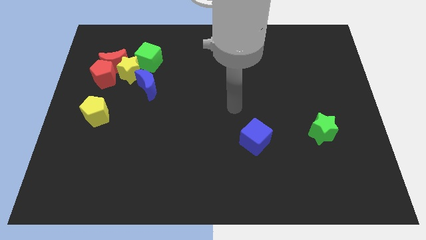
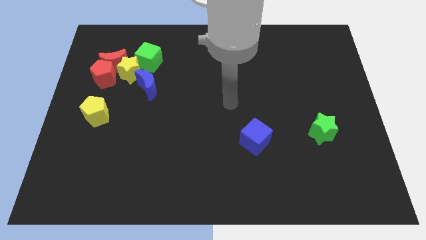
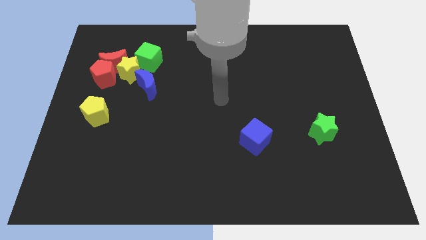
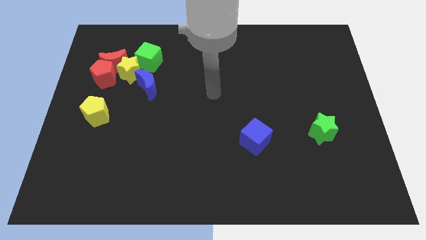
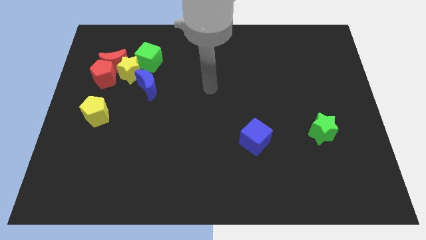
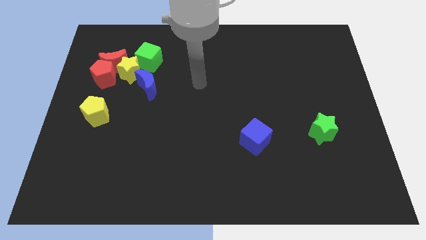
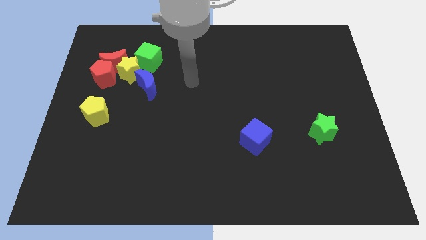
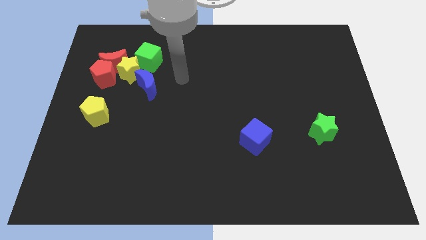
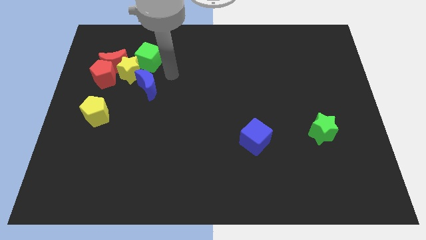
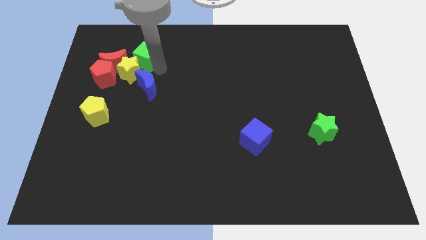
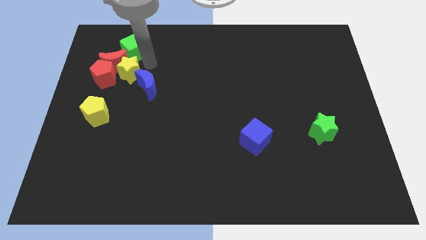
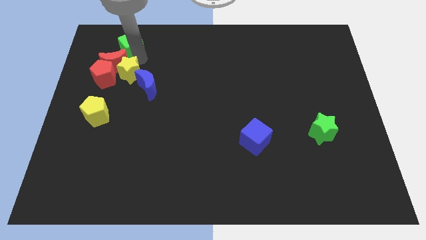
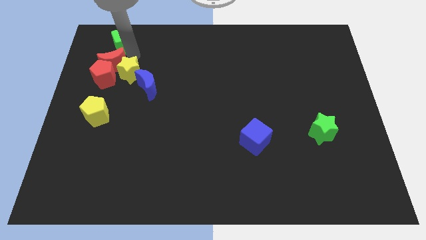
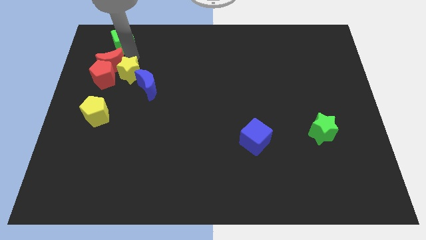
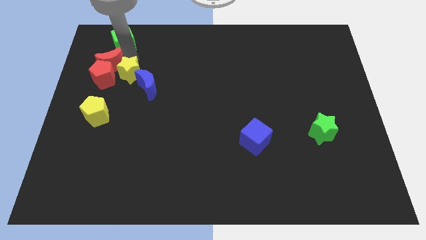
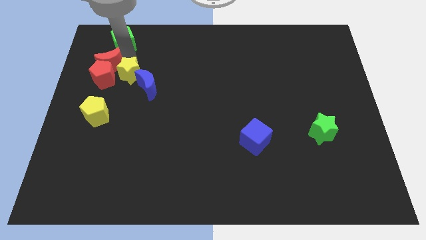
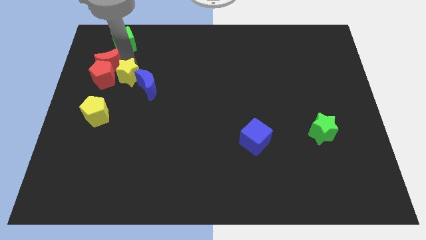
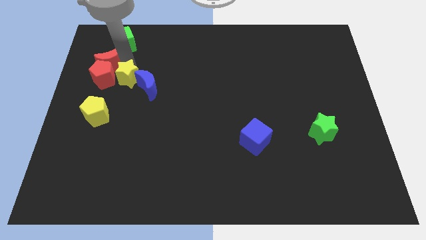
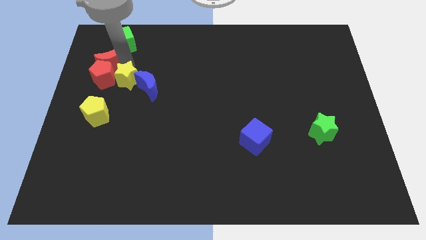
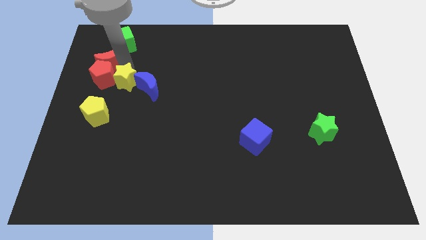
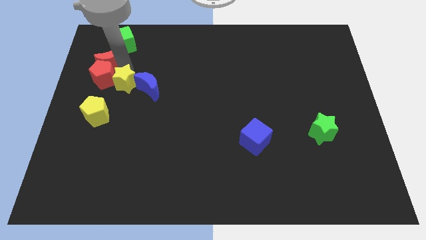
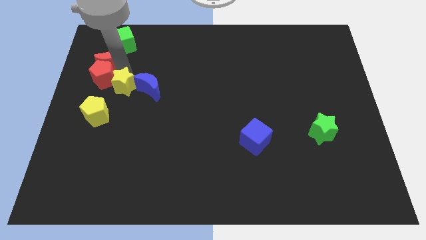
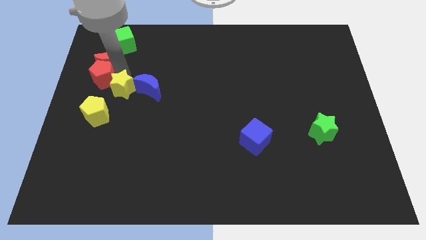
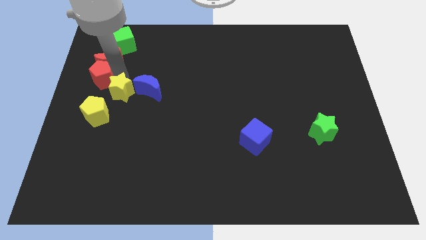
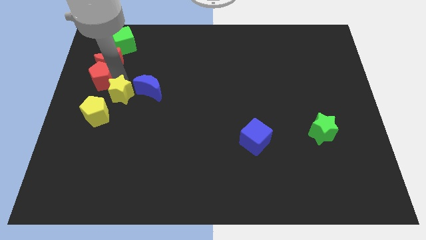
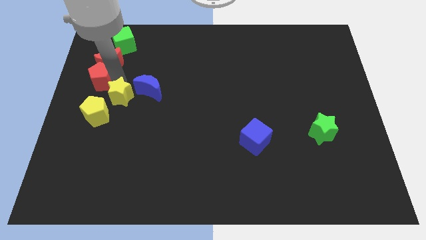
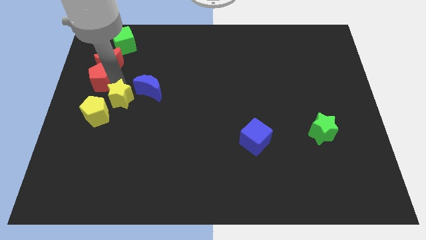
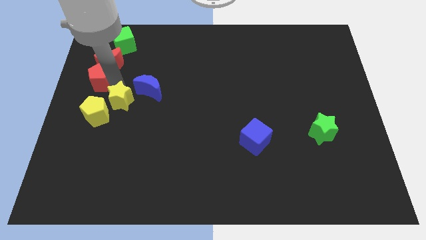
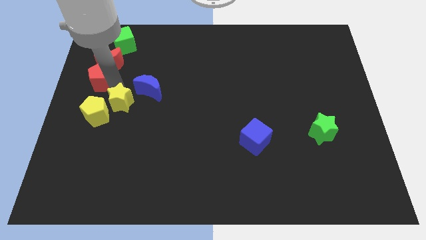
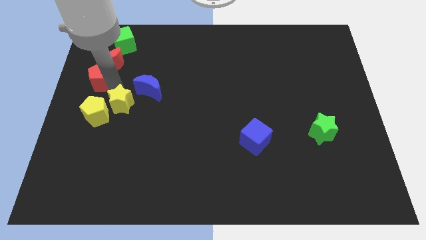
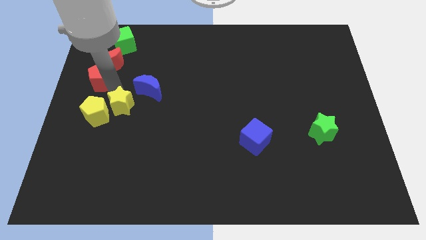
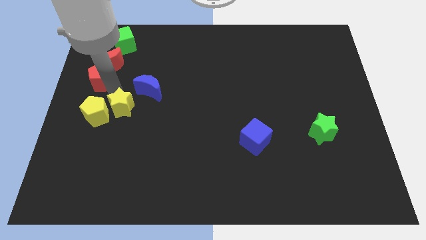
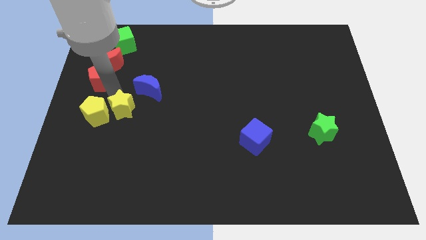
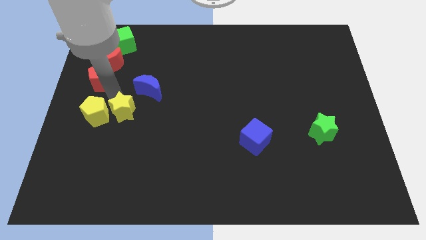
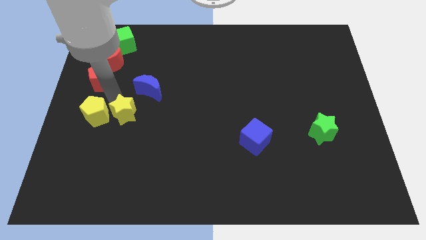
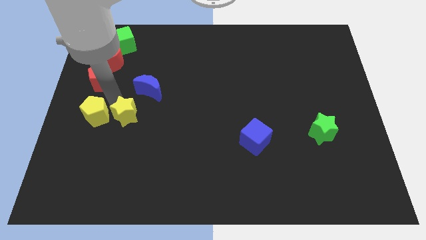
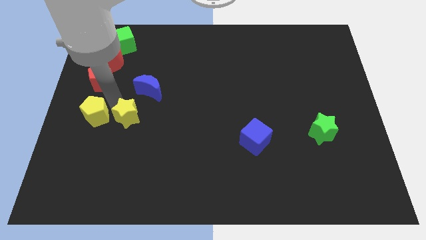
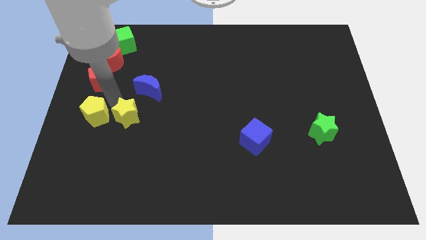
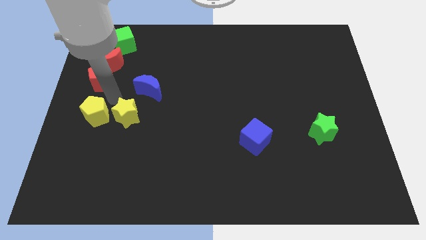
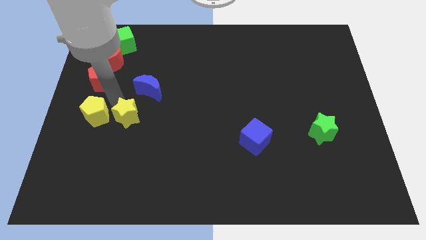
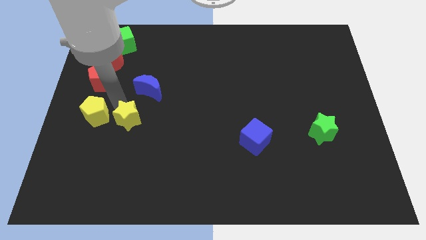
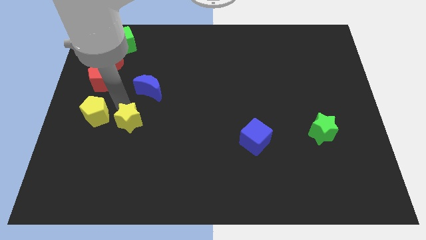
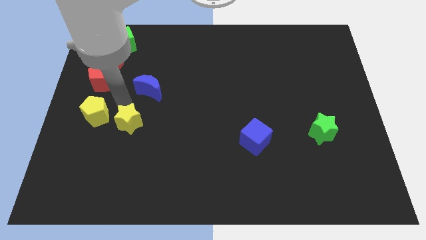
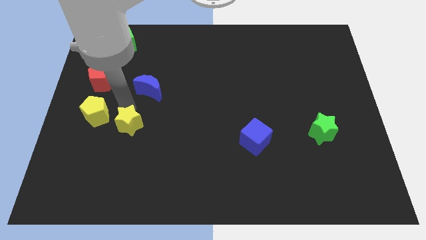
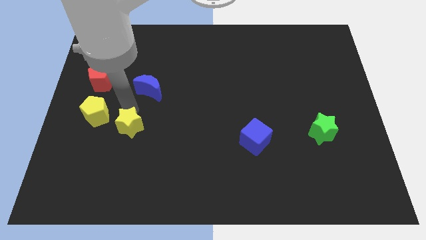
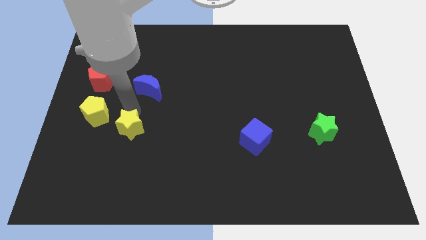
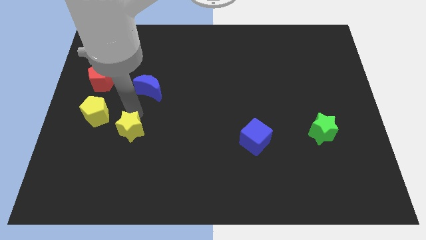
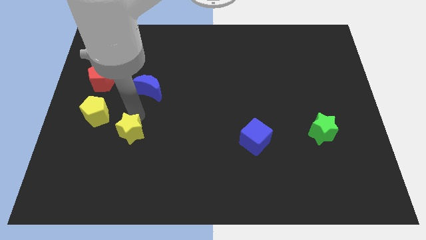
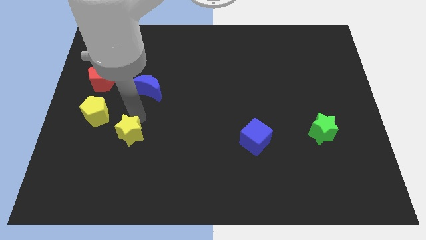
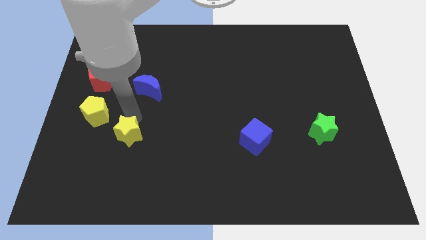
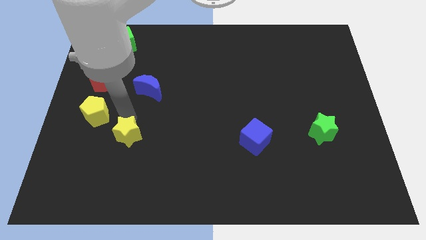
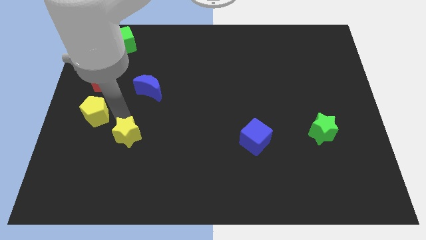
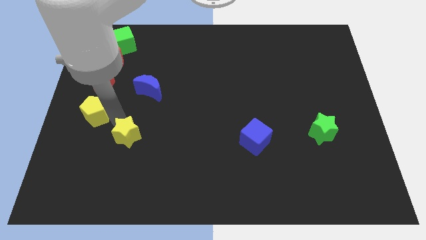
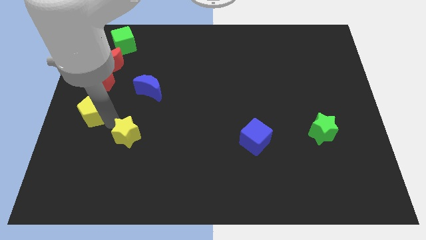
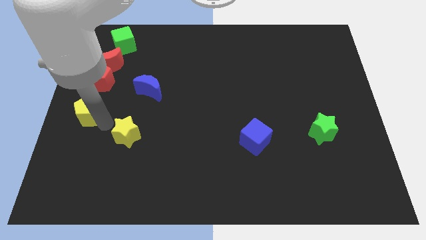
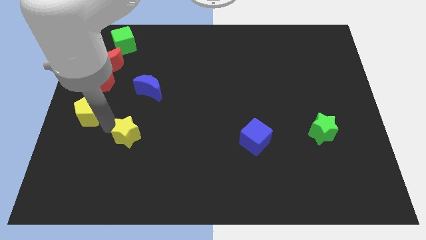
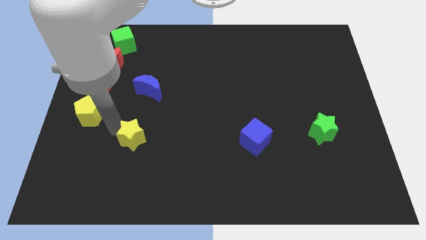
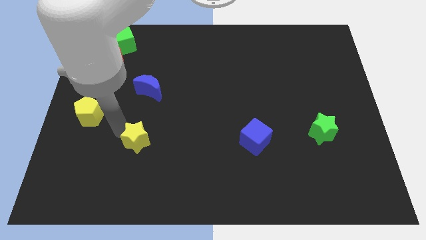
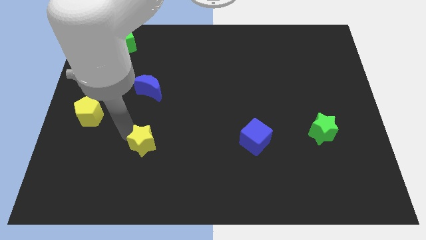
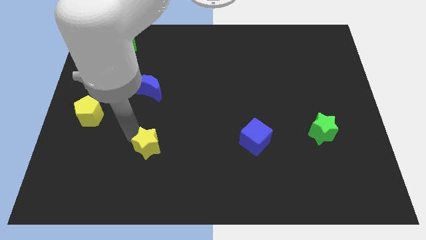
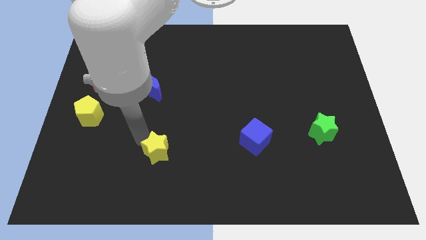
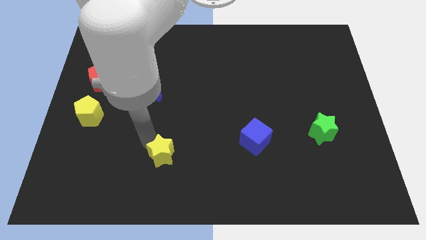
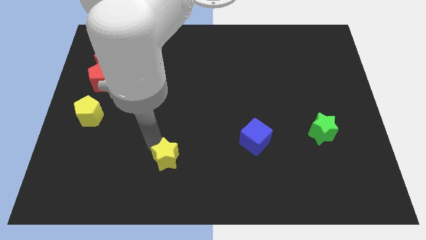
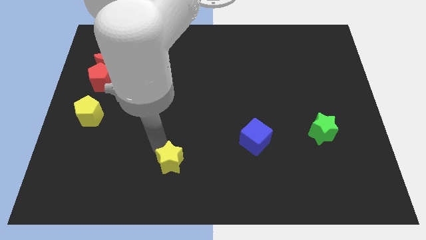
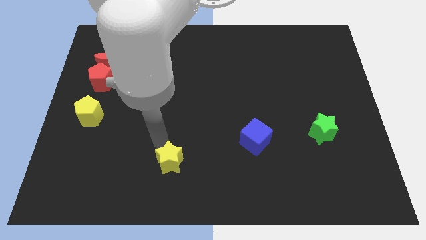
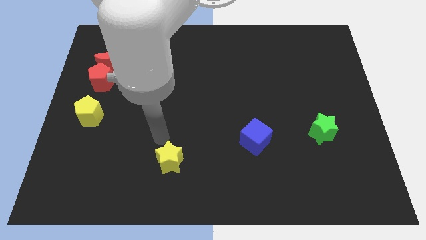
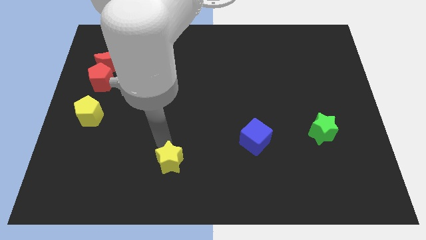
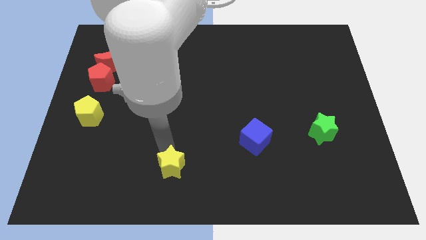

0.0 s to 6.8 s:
put the yellow star to the bottom side
